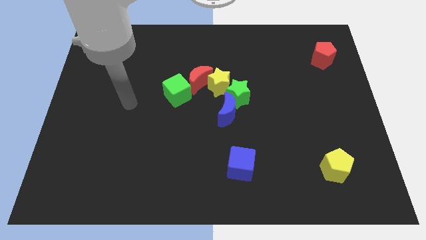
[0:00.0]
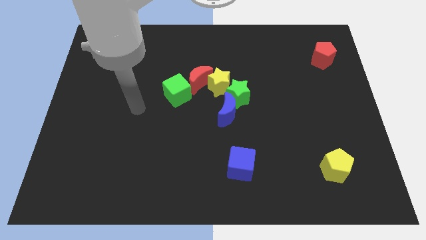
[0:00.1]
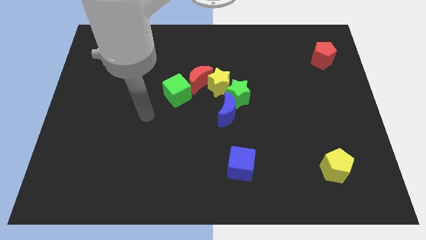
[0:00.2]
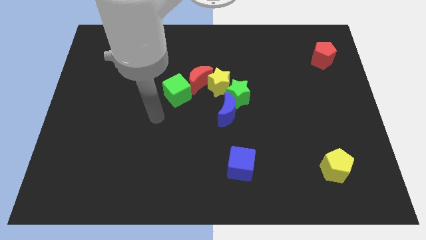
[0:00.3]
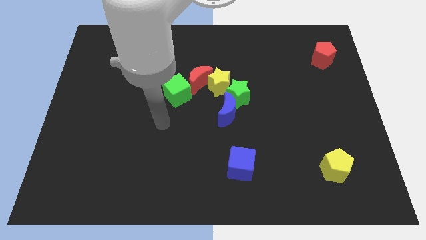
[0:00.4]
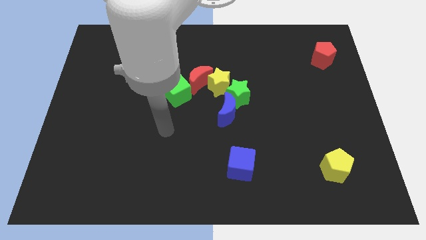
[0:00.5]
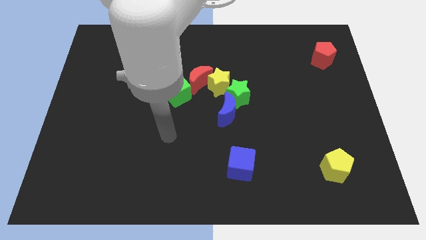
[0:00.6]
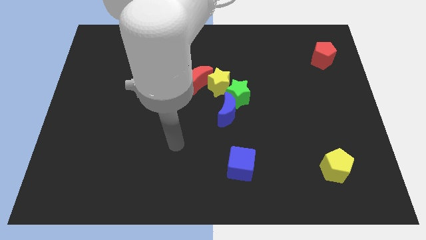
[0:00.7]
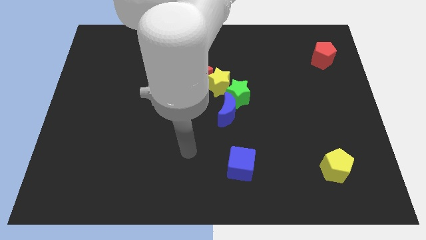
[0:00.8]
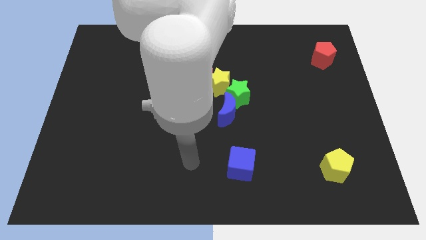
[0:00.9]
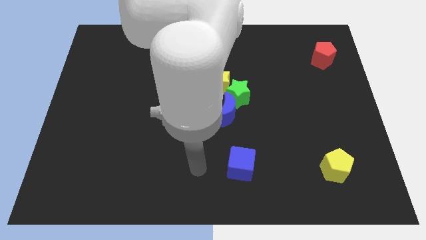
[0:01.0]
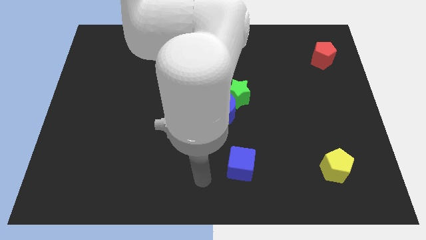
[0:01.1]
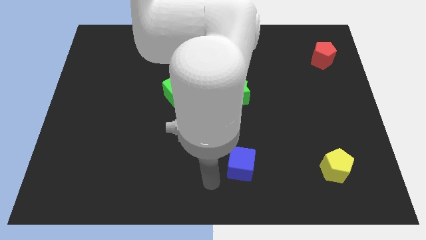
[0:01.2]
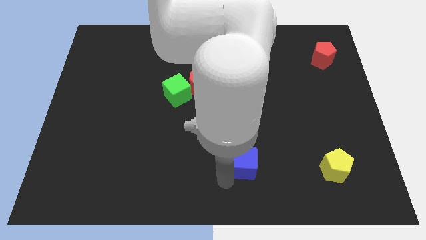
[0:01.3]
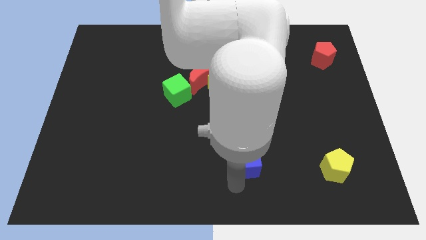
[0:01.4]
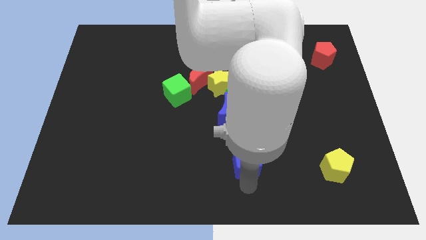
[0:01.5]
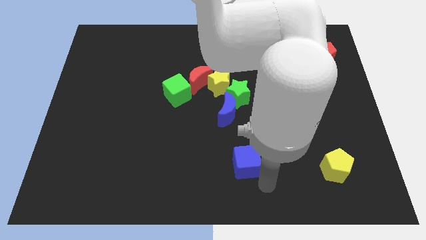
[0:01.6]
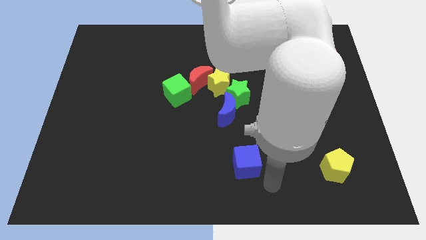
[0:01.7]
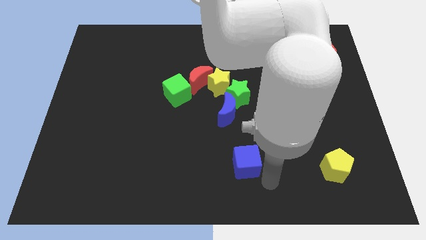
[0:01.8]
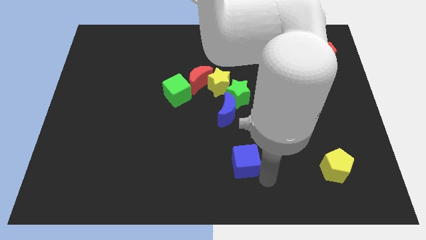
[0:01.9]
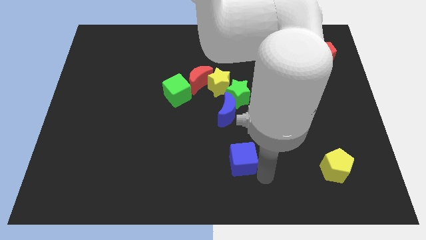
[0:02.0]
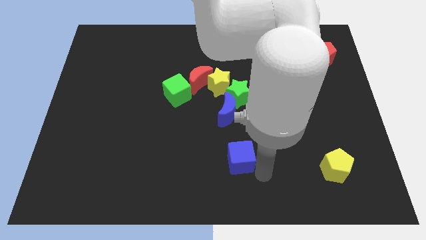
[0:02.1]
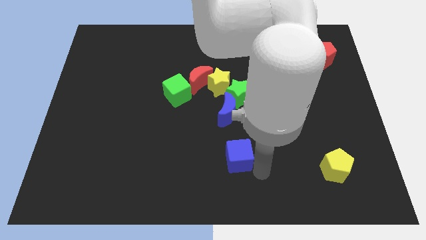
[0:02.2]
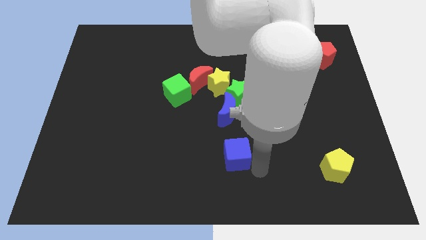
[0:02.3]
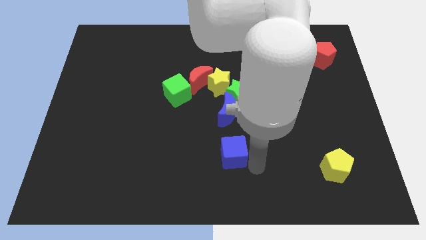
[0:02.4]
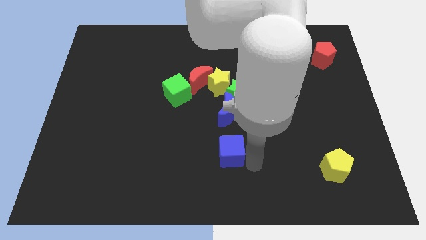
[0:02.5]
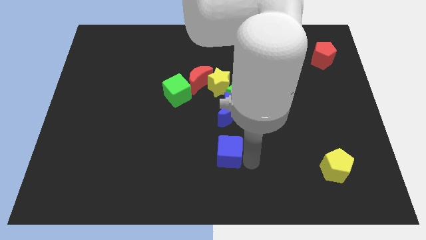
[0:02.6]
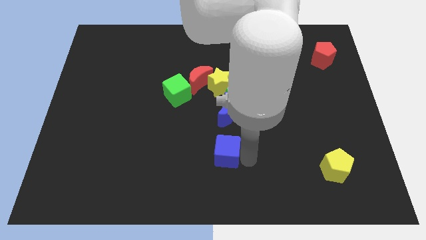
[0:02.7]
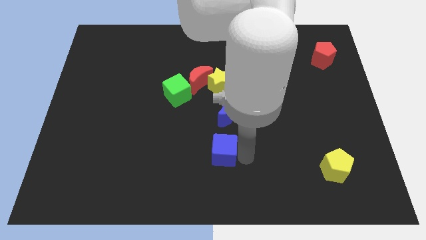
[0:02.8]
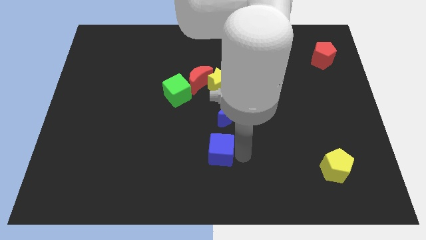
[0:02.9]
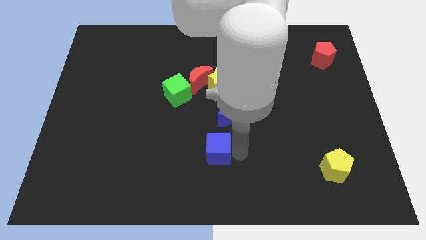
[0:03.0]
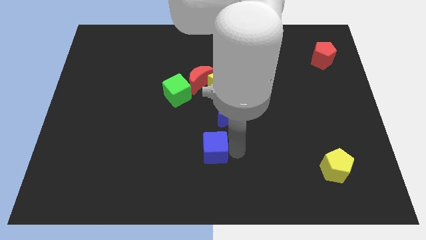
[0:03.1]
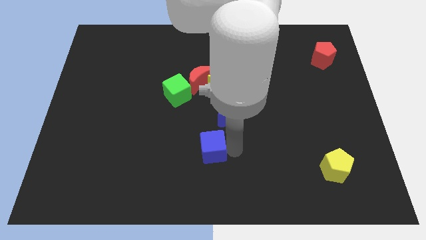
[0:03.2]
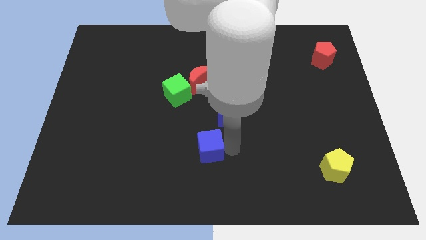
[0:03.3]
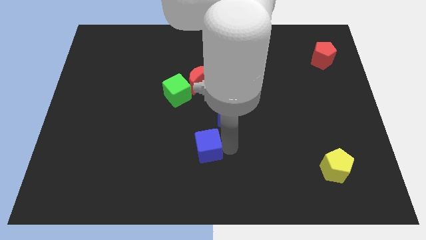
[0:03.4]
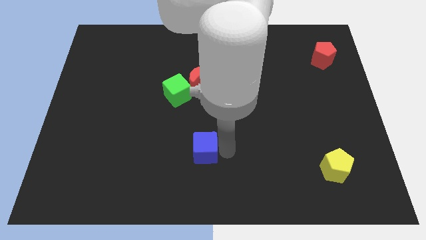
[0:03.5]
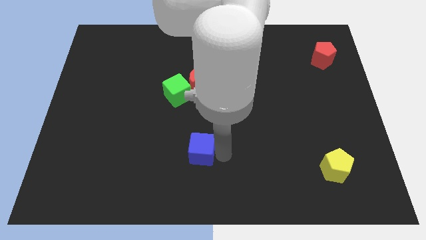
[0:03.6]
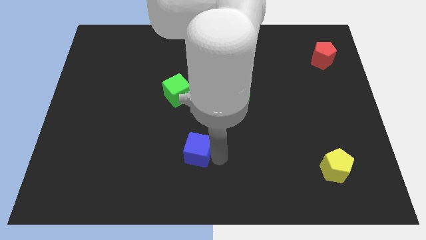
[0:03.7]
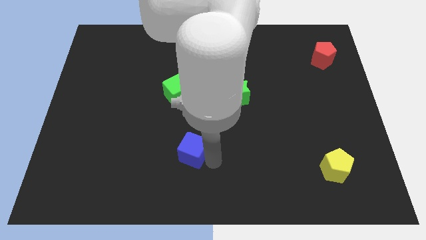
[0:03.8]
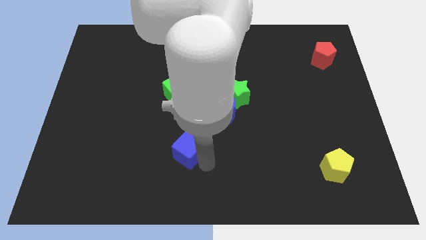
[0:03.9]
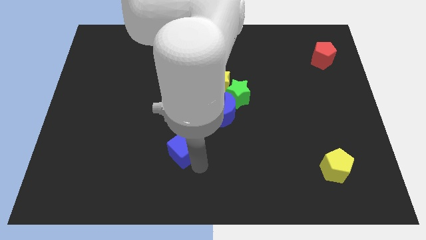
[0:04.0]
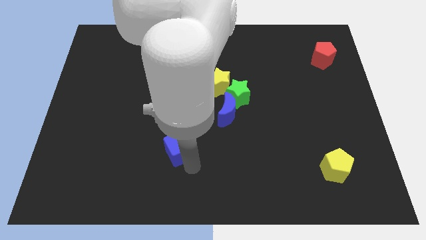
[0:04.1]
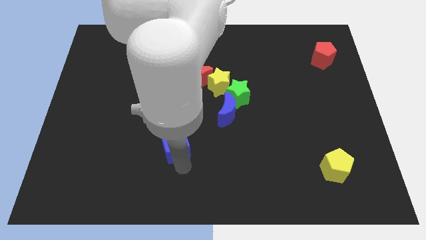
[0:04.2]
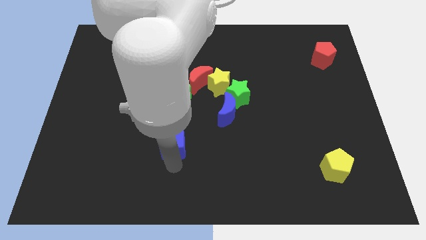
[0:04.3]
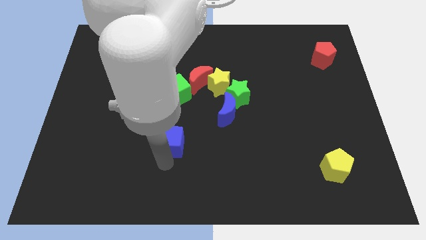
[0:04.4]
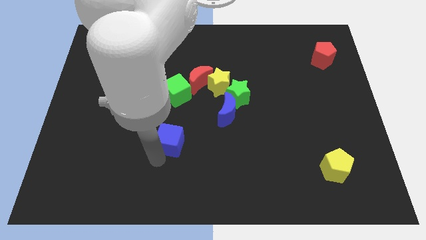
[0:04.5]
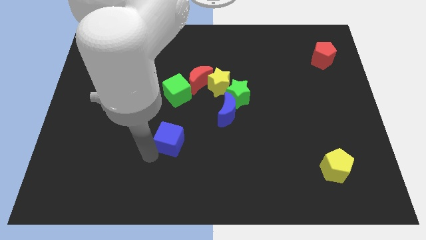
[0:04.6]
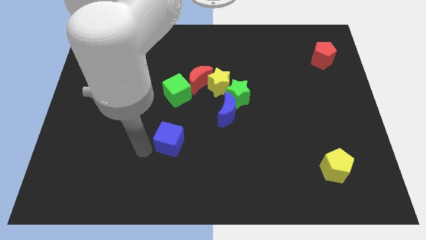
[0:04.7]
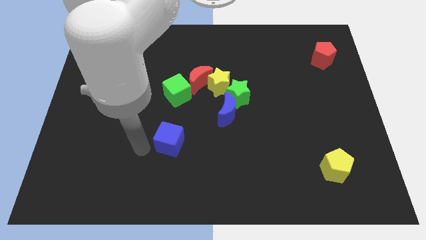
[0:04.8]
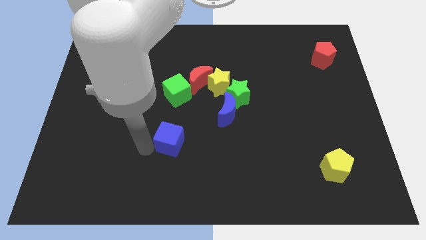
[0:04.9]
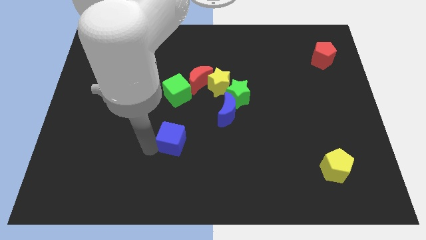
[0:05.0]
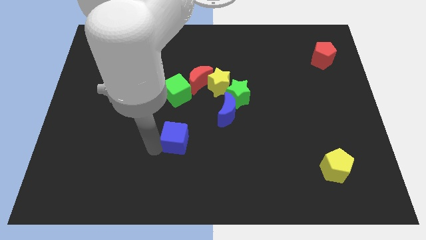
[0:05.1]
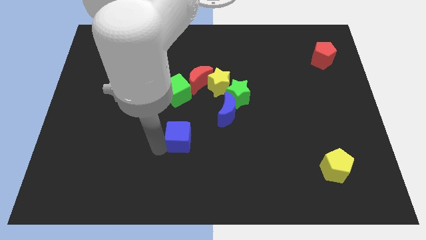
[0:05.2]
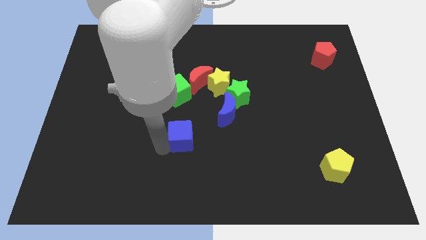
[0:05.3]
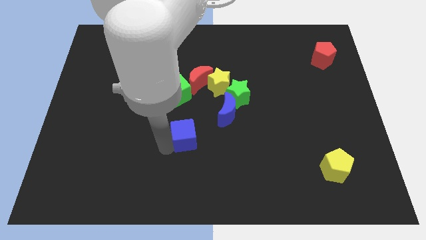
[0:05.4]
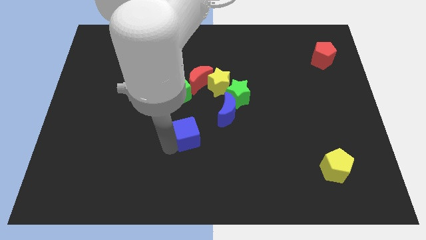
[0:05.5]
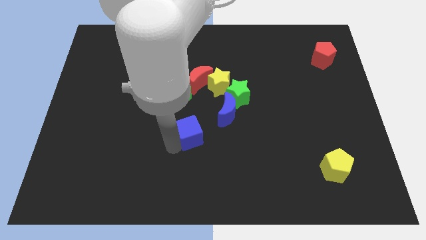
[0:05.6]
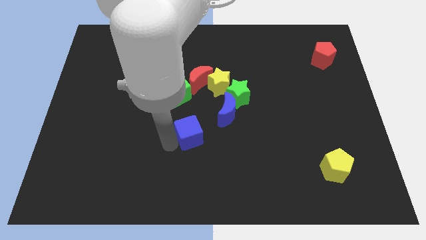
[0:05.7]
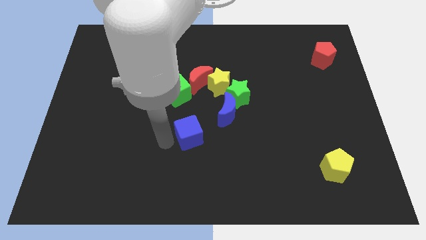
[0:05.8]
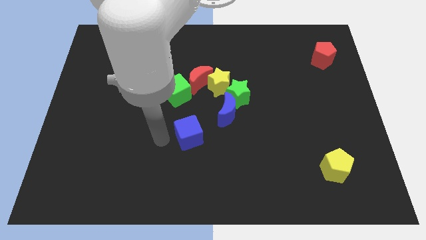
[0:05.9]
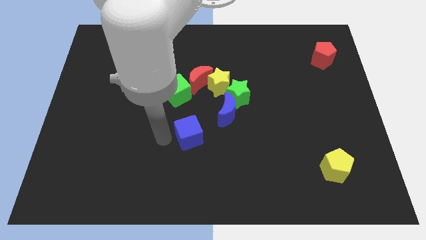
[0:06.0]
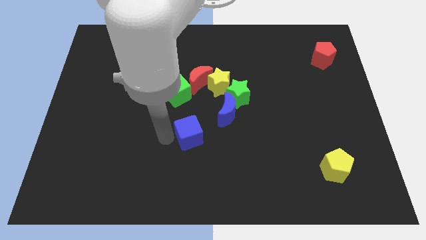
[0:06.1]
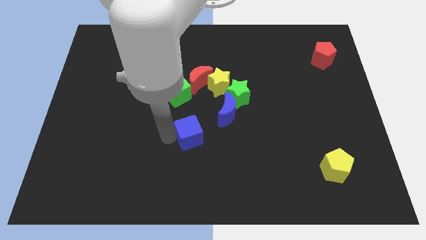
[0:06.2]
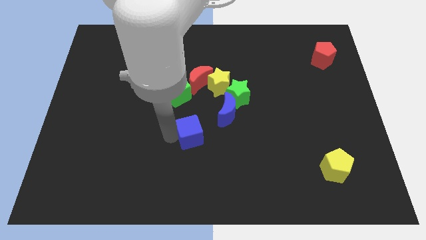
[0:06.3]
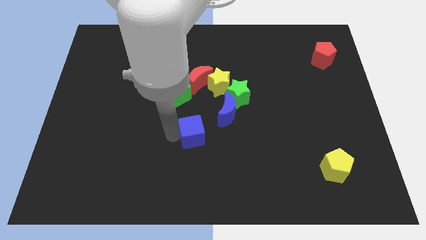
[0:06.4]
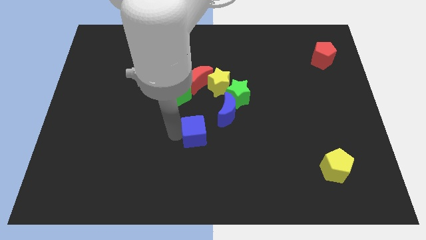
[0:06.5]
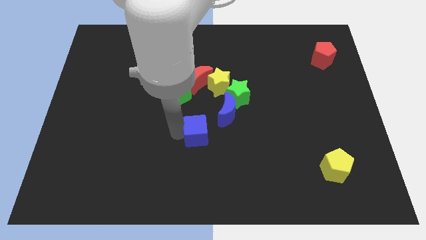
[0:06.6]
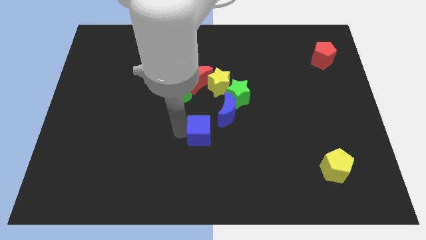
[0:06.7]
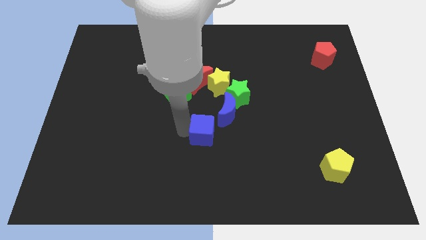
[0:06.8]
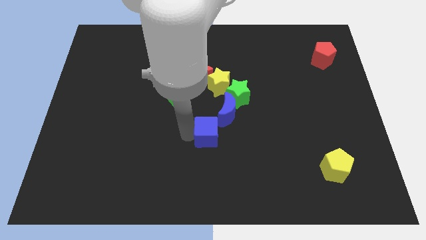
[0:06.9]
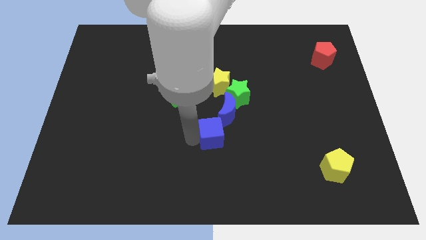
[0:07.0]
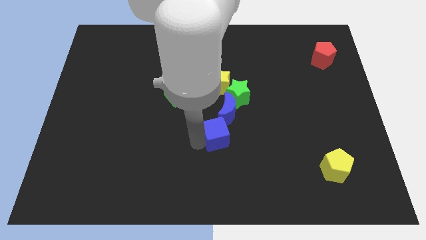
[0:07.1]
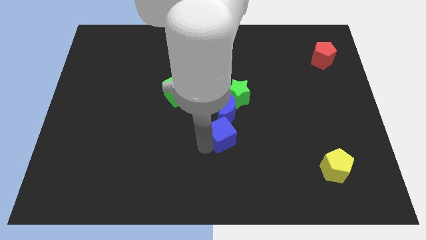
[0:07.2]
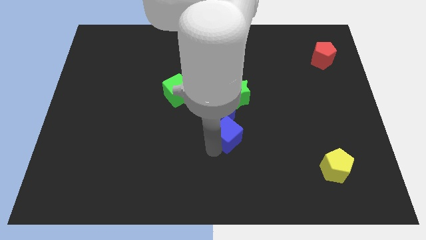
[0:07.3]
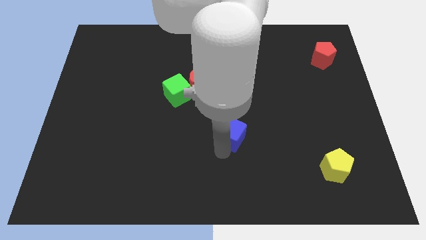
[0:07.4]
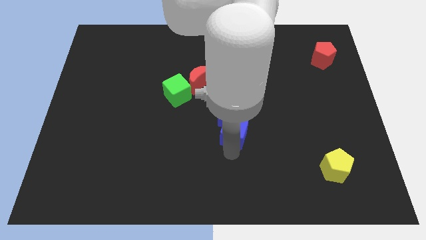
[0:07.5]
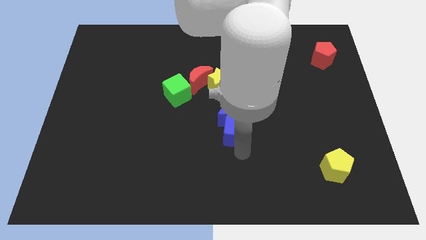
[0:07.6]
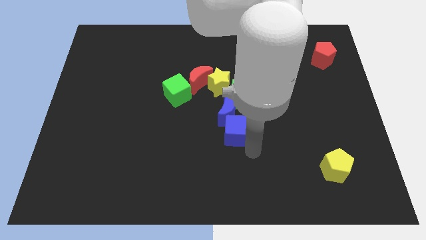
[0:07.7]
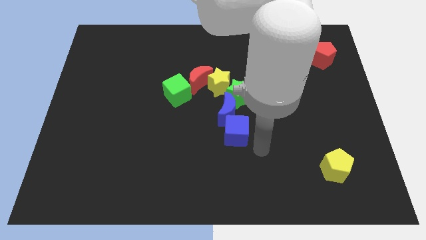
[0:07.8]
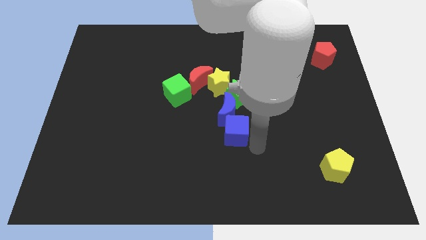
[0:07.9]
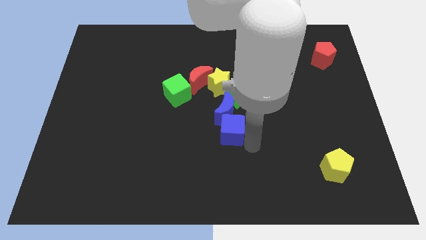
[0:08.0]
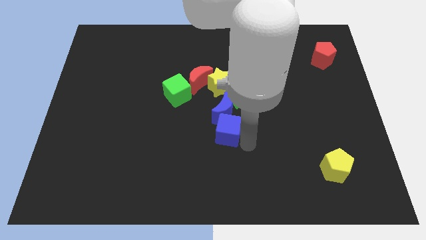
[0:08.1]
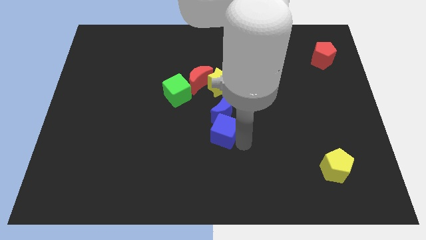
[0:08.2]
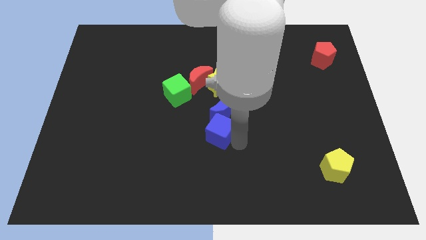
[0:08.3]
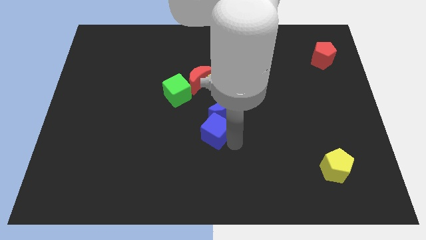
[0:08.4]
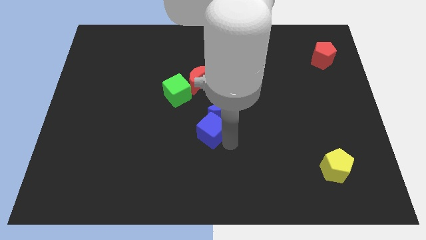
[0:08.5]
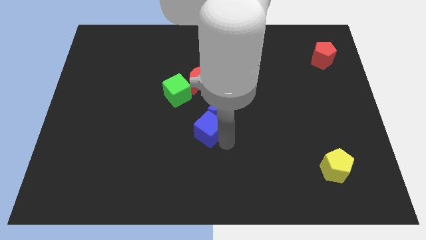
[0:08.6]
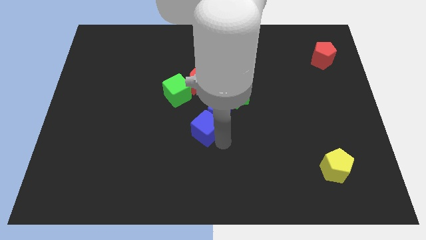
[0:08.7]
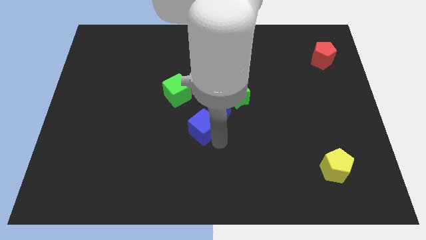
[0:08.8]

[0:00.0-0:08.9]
slide the blue cube to the bottom right side of the green cube
